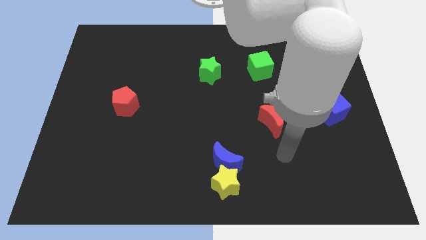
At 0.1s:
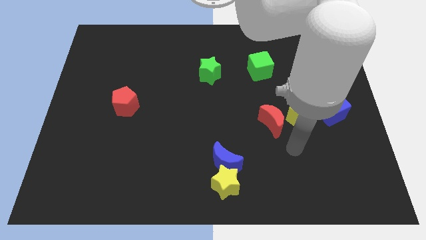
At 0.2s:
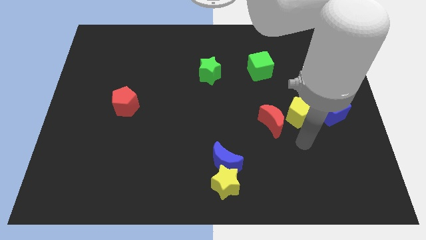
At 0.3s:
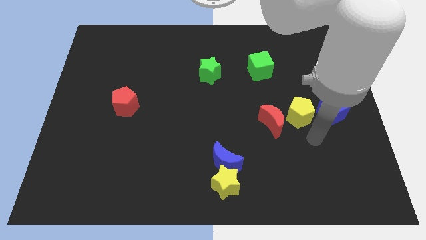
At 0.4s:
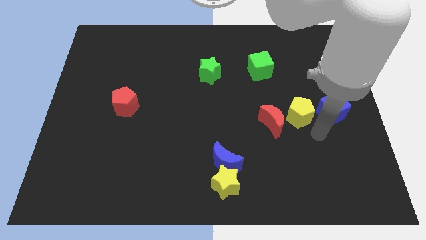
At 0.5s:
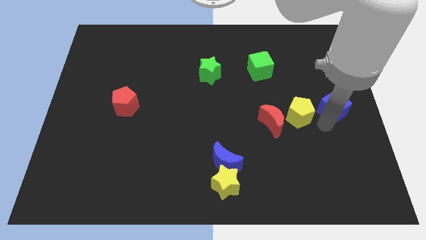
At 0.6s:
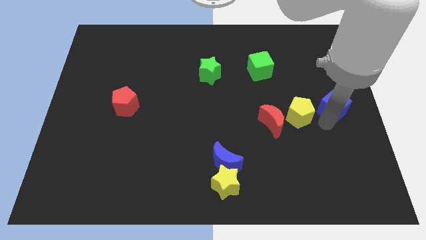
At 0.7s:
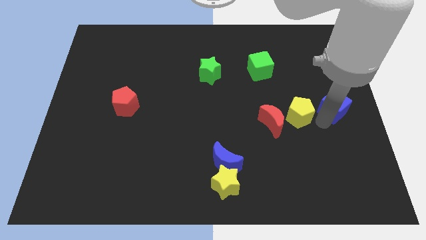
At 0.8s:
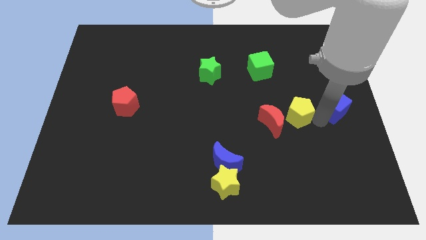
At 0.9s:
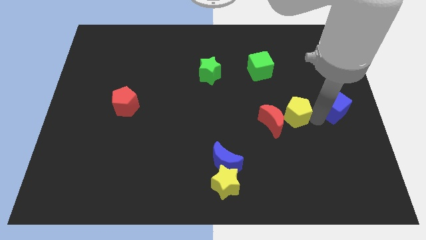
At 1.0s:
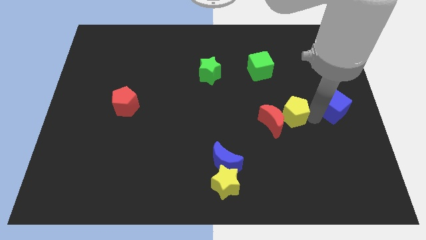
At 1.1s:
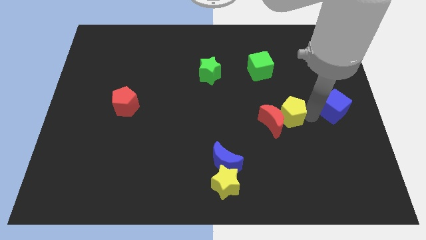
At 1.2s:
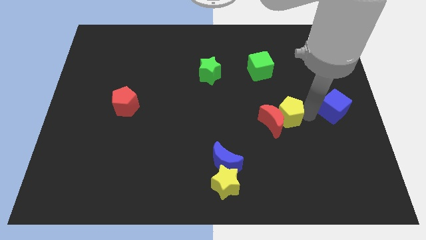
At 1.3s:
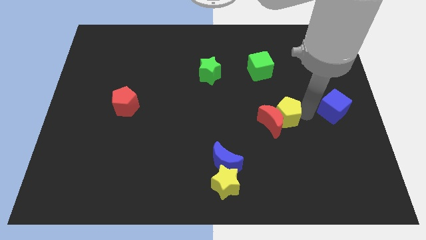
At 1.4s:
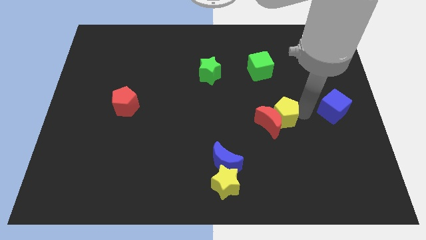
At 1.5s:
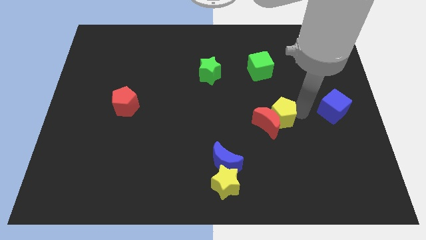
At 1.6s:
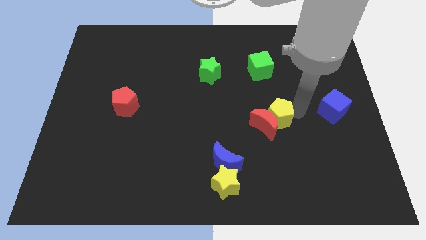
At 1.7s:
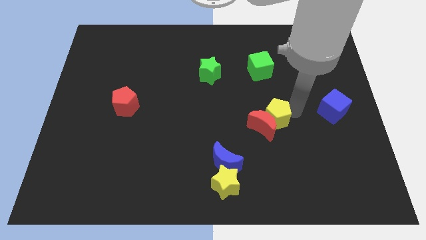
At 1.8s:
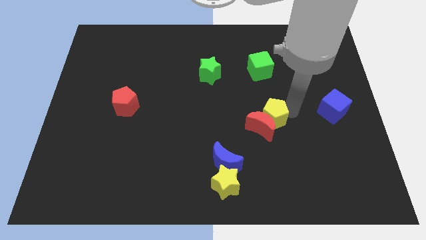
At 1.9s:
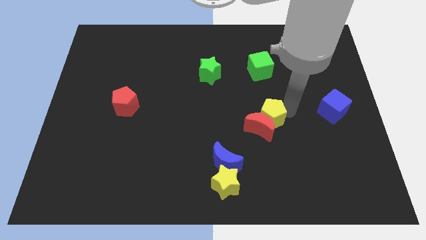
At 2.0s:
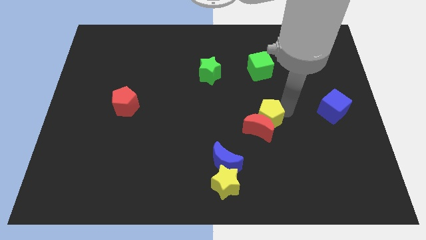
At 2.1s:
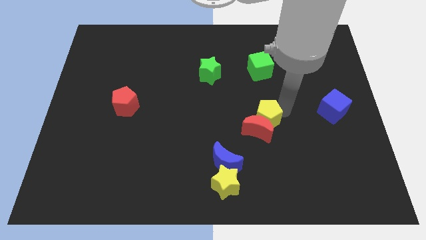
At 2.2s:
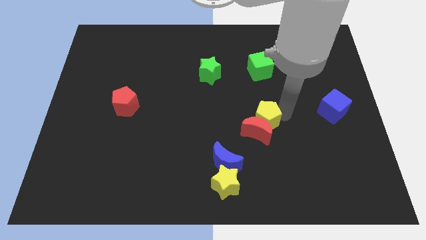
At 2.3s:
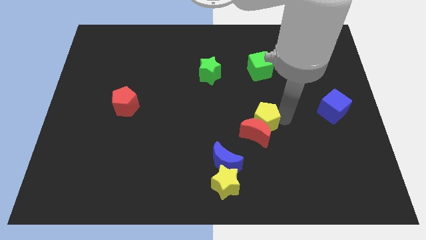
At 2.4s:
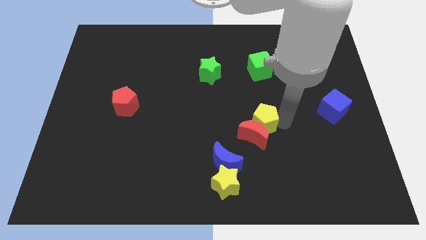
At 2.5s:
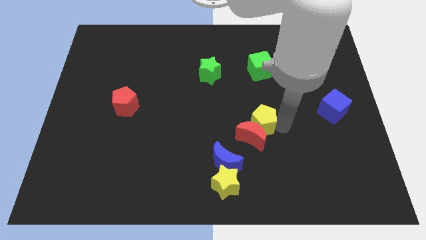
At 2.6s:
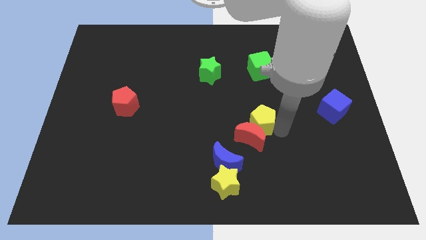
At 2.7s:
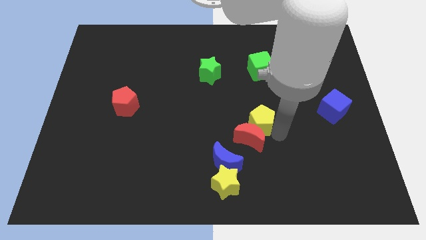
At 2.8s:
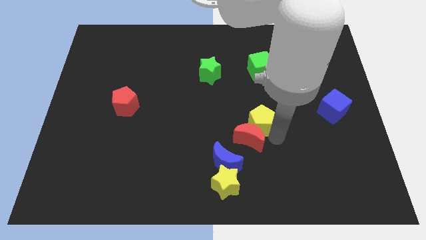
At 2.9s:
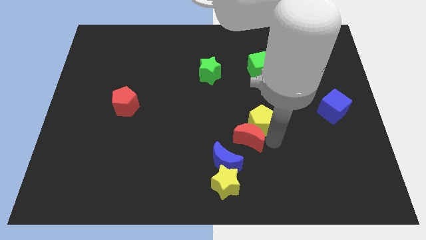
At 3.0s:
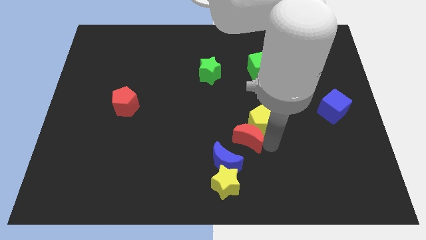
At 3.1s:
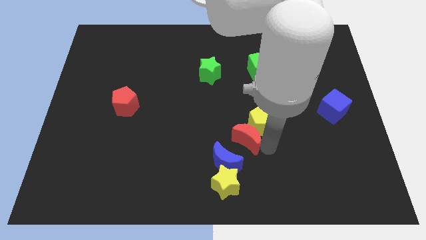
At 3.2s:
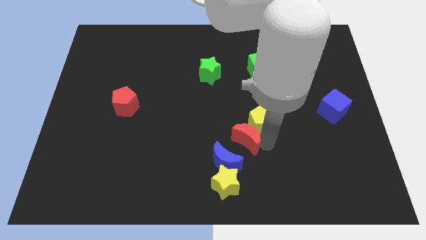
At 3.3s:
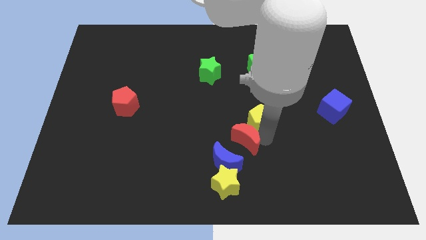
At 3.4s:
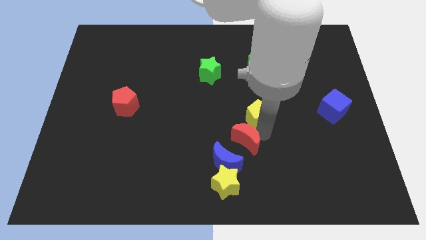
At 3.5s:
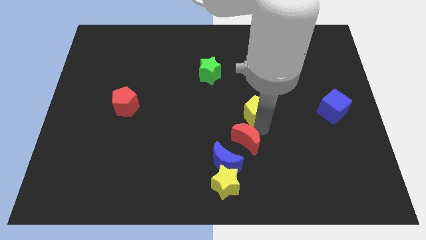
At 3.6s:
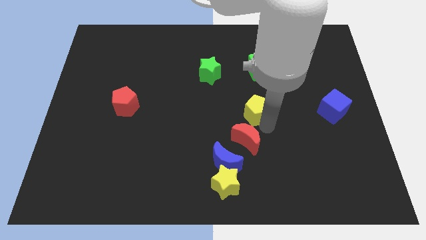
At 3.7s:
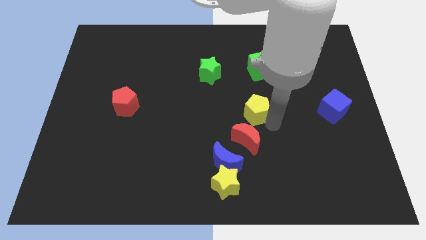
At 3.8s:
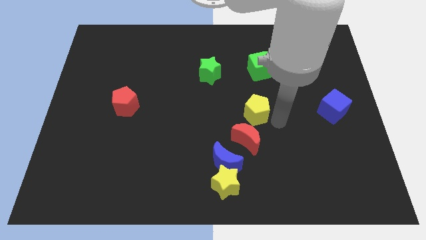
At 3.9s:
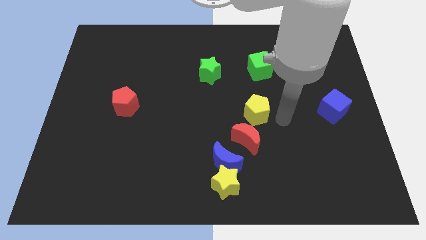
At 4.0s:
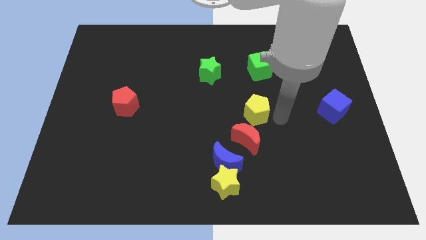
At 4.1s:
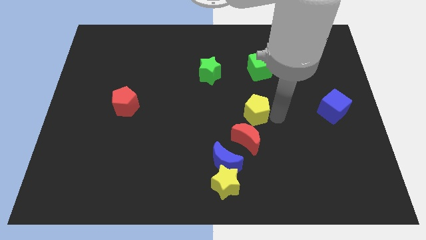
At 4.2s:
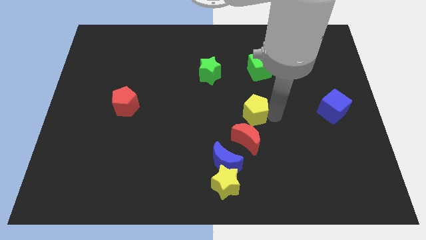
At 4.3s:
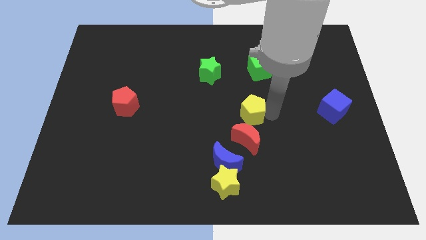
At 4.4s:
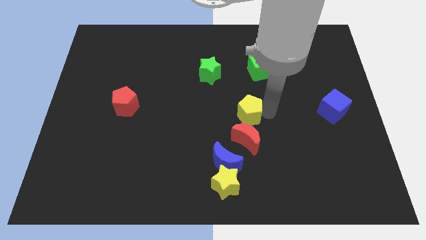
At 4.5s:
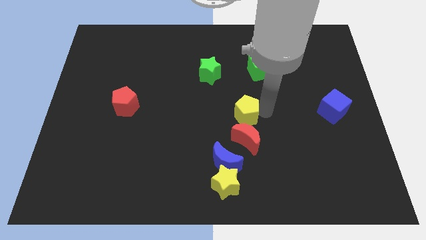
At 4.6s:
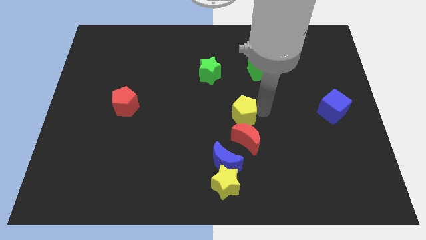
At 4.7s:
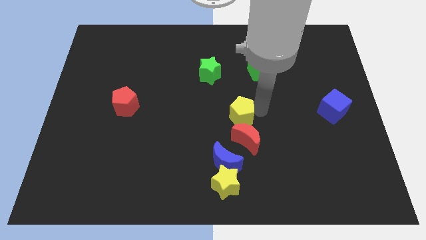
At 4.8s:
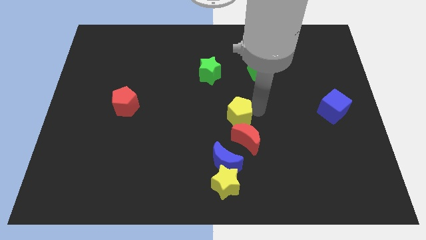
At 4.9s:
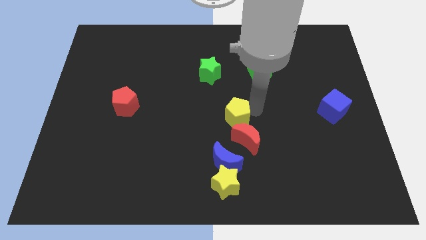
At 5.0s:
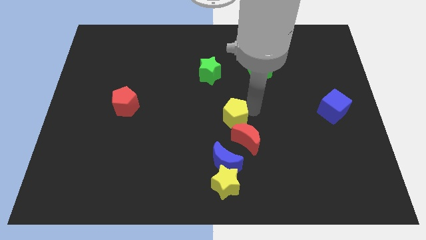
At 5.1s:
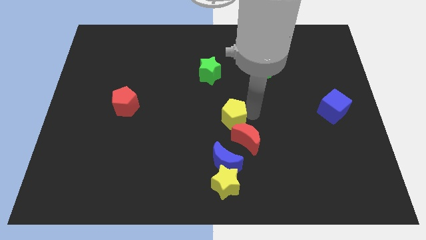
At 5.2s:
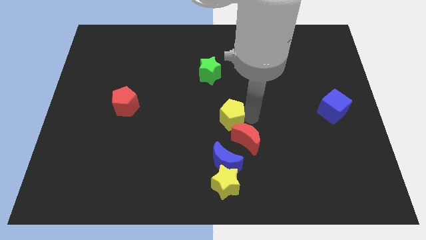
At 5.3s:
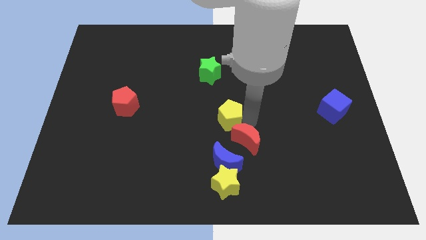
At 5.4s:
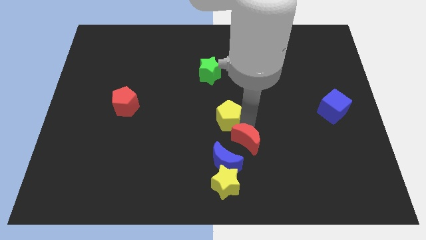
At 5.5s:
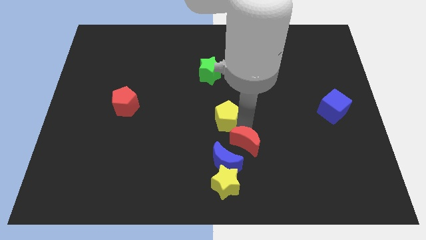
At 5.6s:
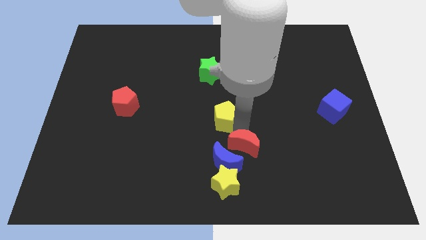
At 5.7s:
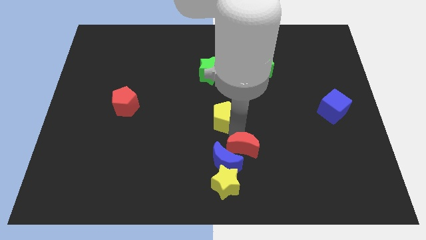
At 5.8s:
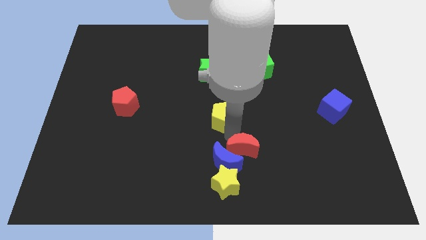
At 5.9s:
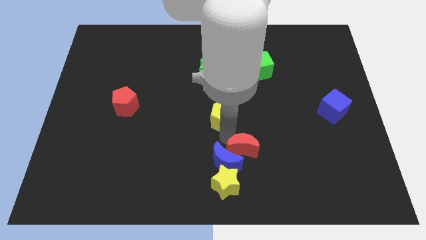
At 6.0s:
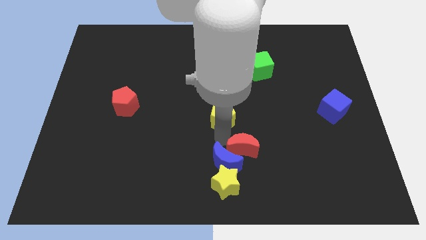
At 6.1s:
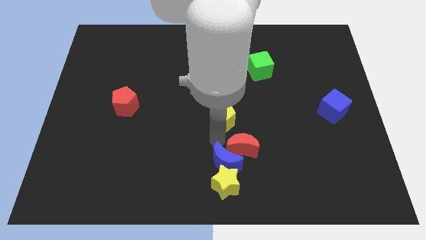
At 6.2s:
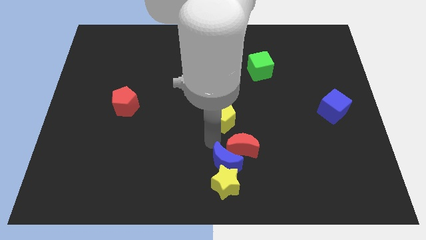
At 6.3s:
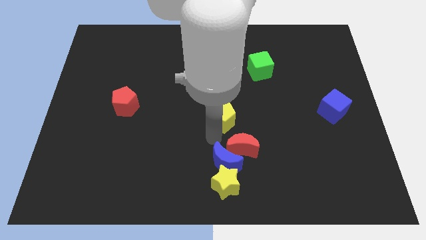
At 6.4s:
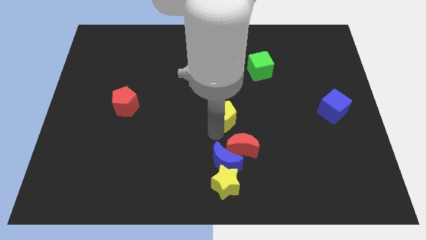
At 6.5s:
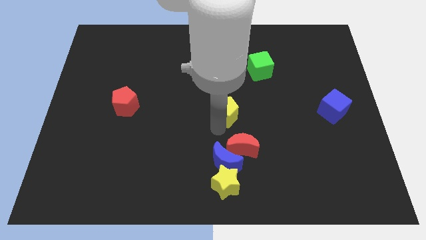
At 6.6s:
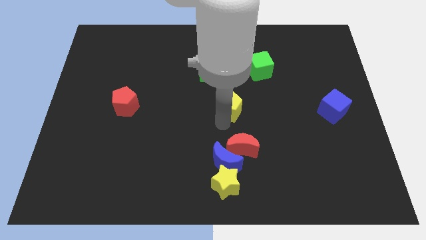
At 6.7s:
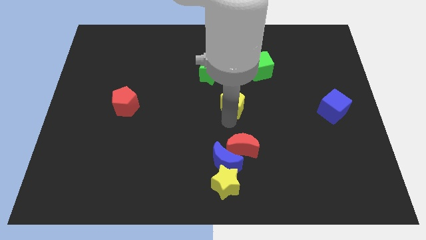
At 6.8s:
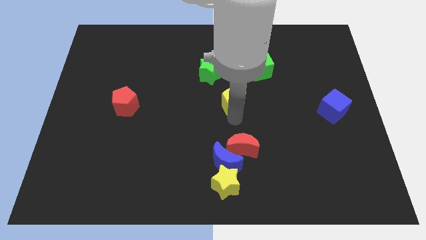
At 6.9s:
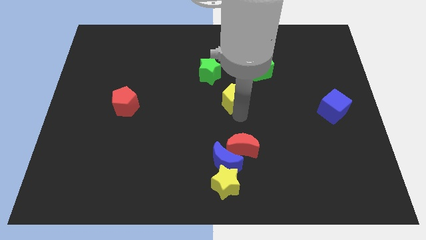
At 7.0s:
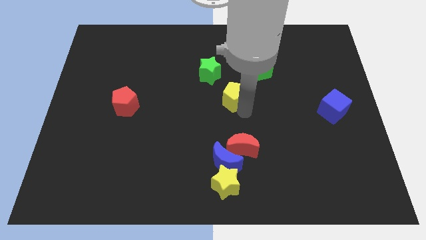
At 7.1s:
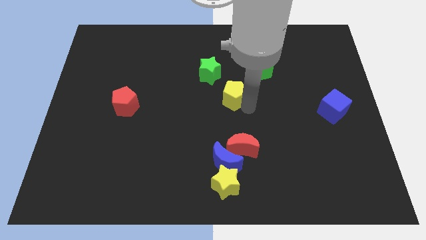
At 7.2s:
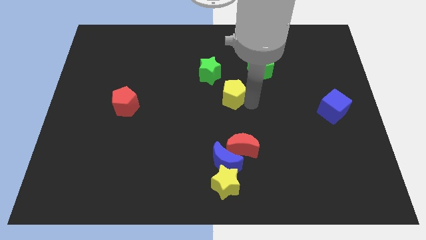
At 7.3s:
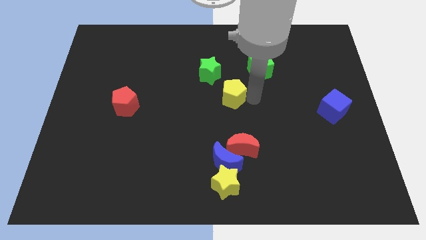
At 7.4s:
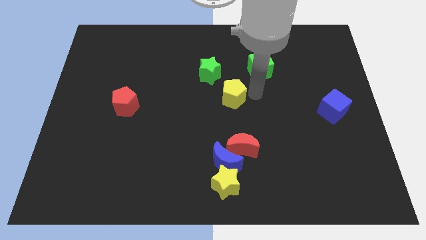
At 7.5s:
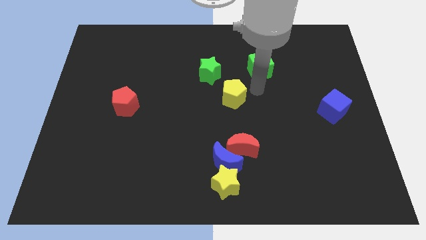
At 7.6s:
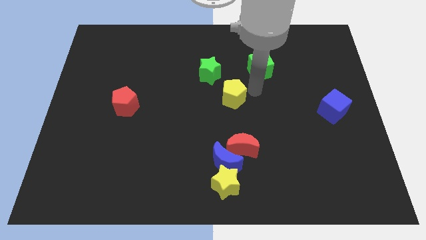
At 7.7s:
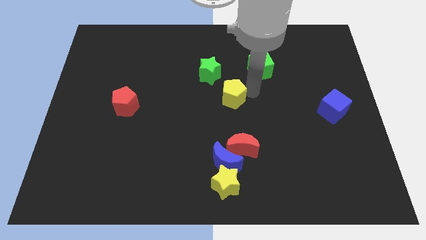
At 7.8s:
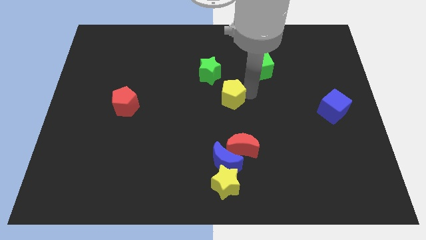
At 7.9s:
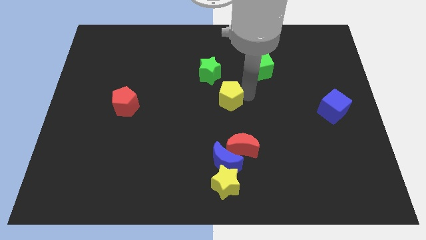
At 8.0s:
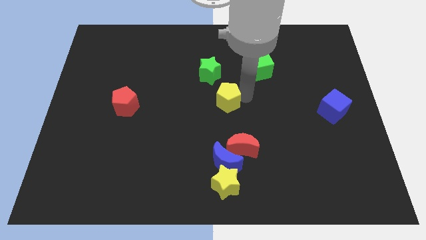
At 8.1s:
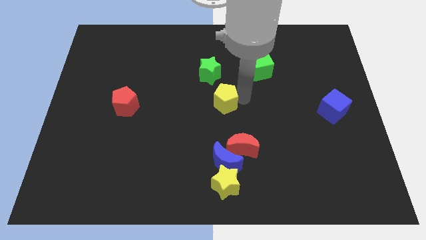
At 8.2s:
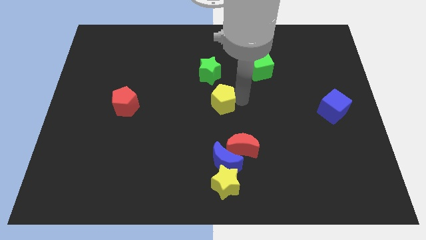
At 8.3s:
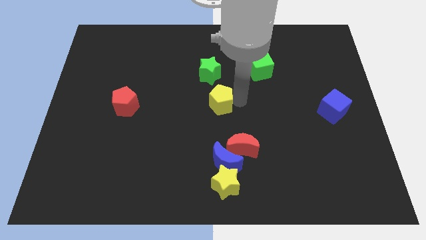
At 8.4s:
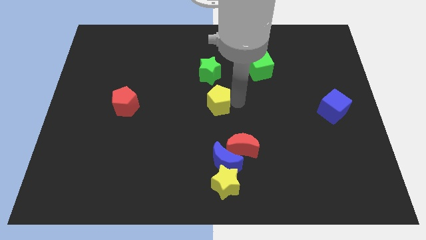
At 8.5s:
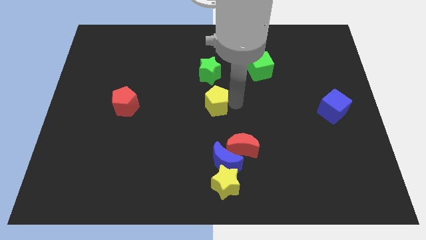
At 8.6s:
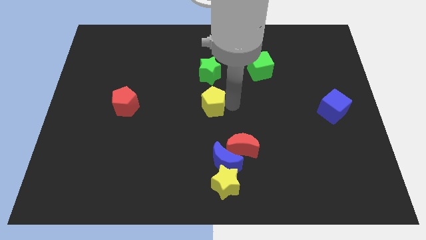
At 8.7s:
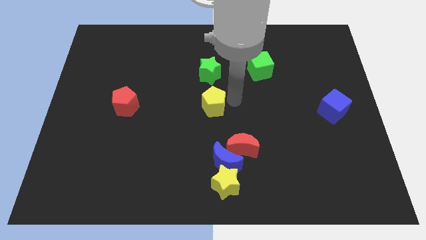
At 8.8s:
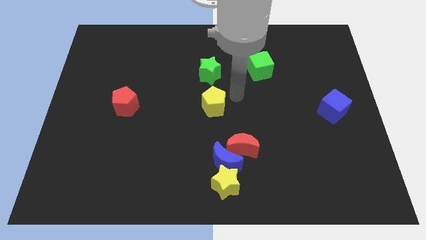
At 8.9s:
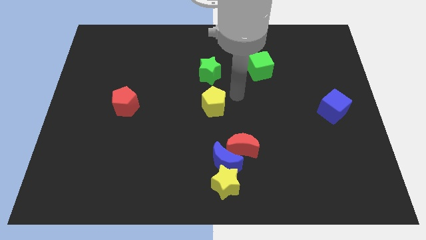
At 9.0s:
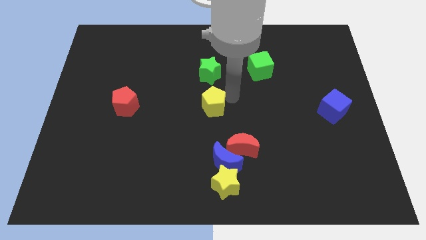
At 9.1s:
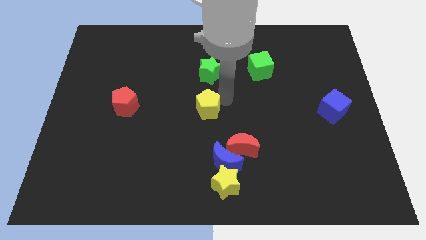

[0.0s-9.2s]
push the yellow pentagon left
